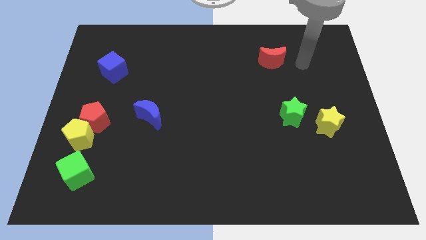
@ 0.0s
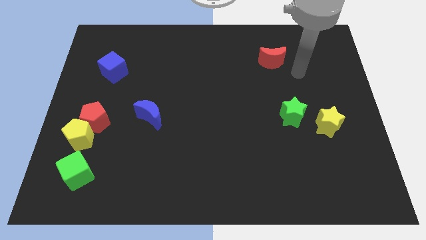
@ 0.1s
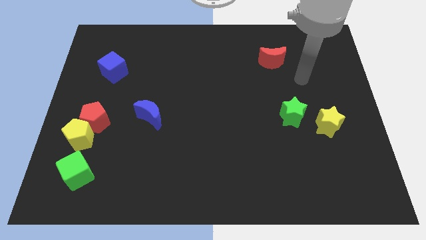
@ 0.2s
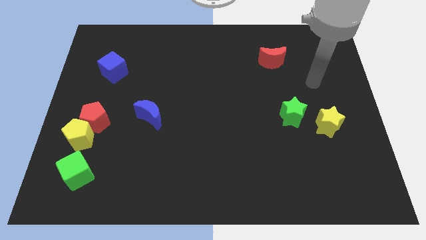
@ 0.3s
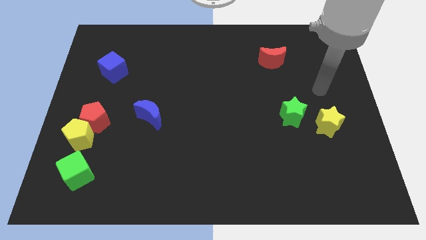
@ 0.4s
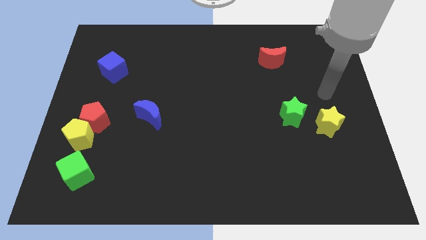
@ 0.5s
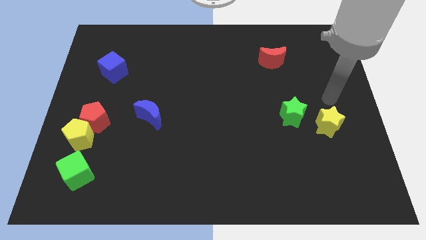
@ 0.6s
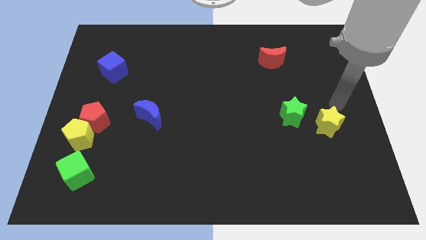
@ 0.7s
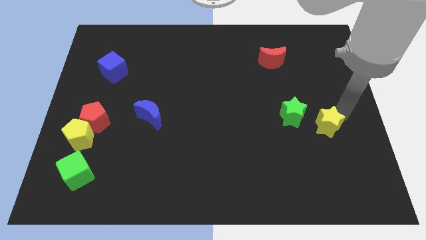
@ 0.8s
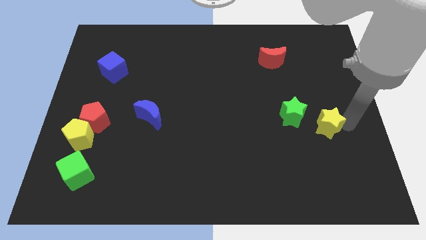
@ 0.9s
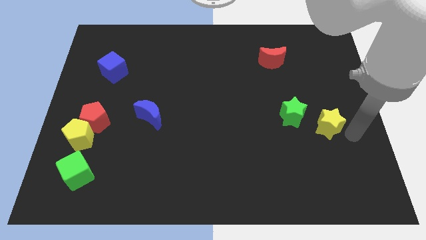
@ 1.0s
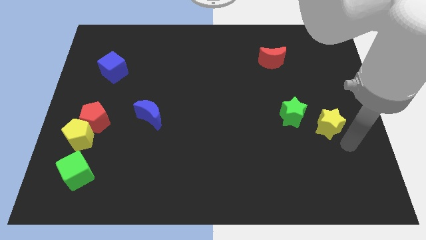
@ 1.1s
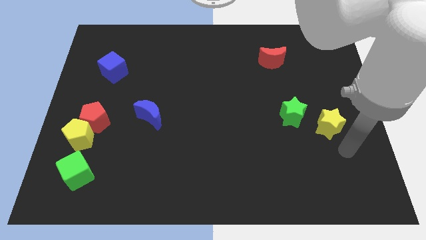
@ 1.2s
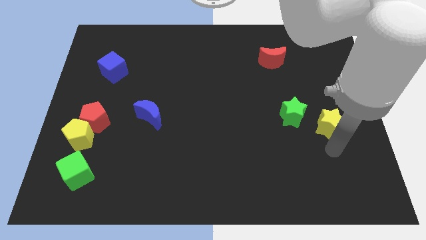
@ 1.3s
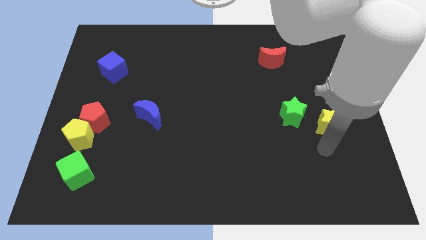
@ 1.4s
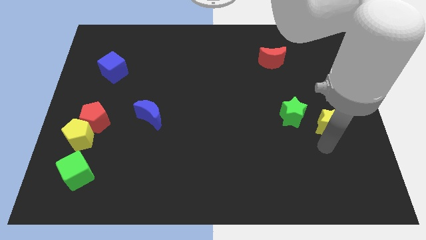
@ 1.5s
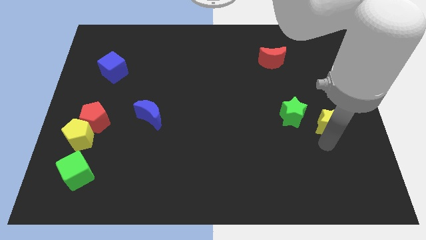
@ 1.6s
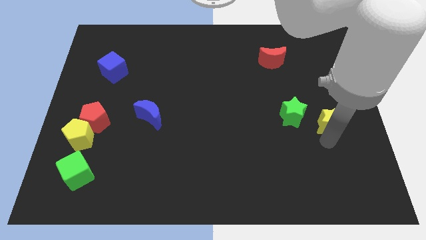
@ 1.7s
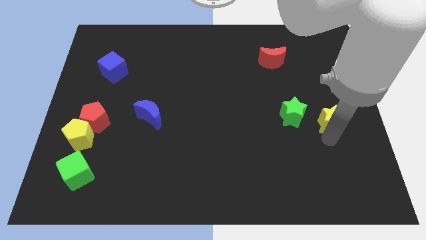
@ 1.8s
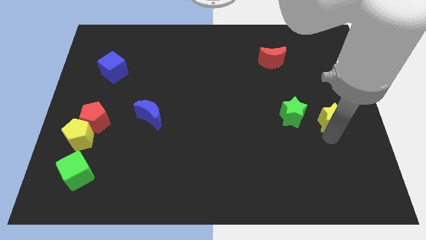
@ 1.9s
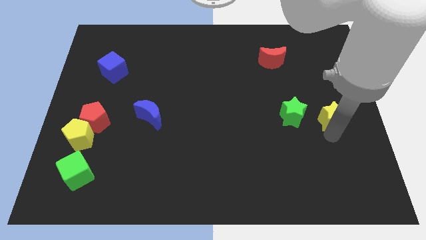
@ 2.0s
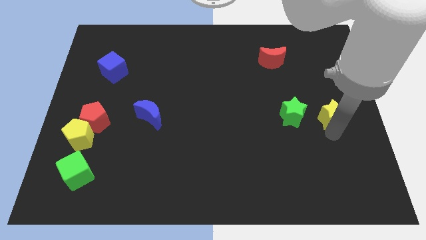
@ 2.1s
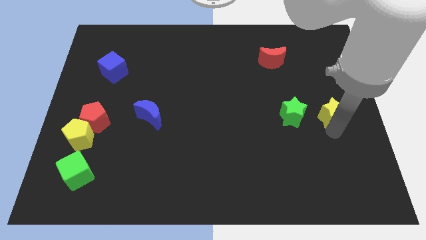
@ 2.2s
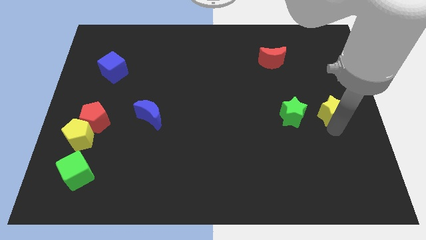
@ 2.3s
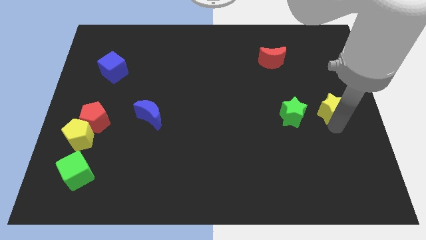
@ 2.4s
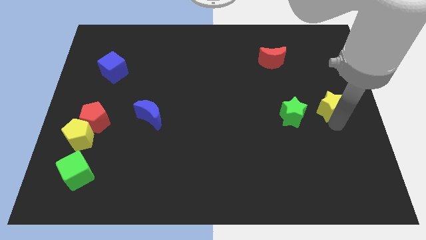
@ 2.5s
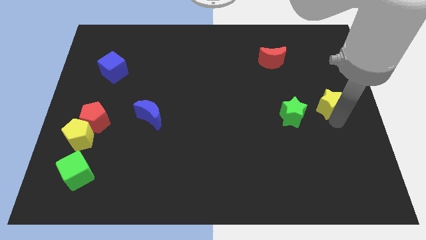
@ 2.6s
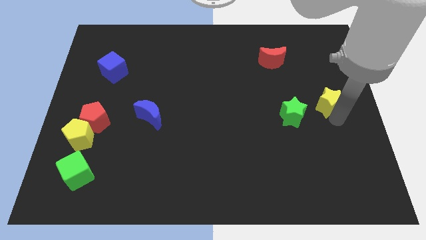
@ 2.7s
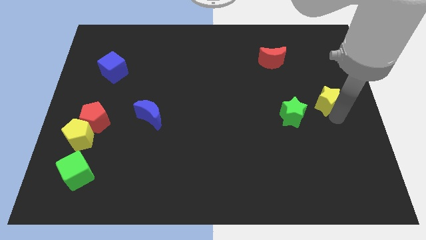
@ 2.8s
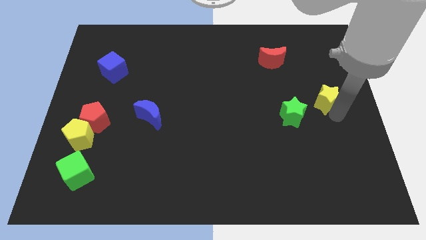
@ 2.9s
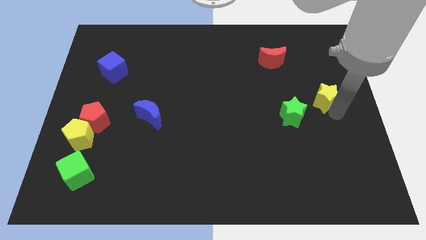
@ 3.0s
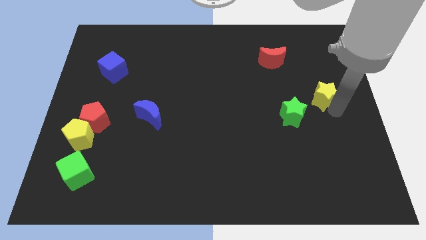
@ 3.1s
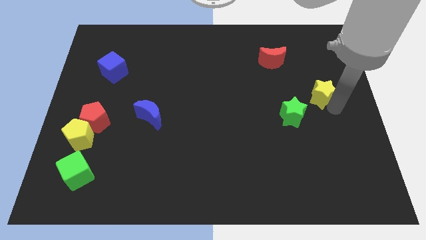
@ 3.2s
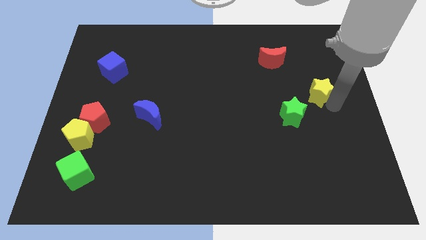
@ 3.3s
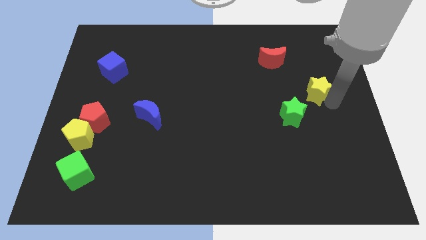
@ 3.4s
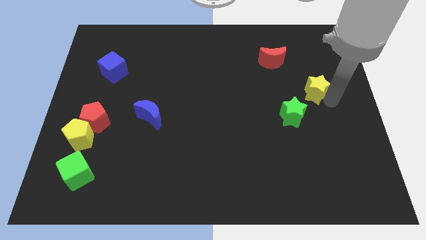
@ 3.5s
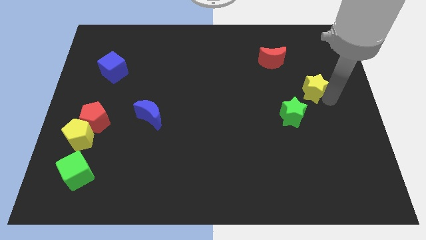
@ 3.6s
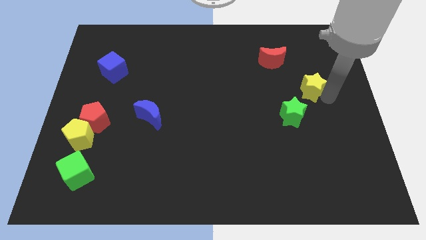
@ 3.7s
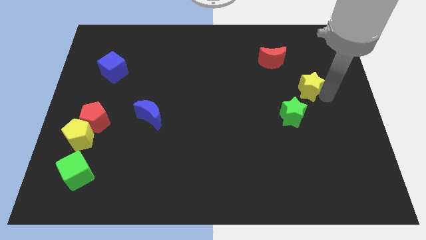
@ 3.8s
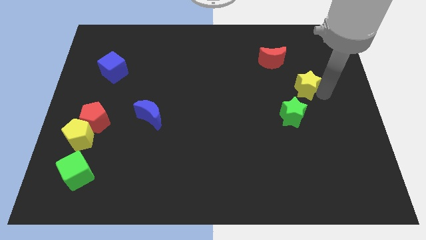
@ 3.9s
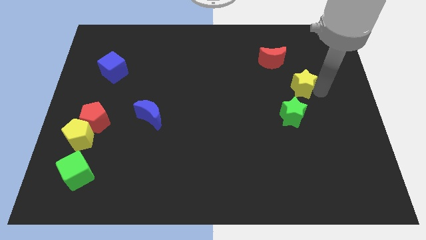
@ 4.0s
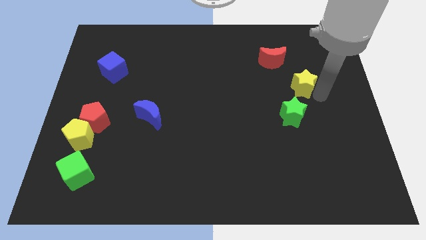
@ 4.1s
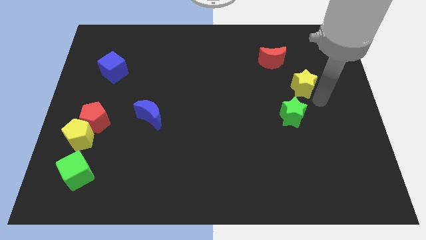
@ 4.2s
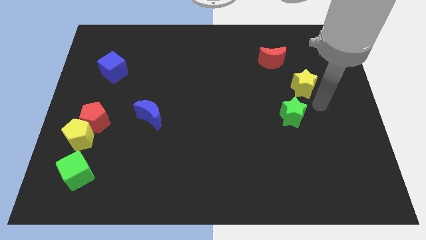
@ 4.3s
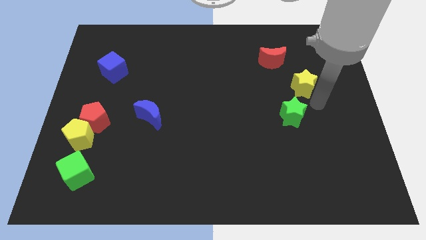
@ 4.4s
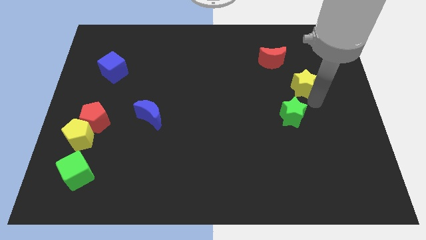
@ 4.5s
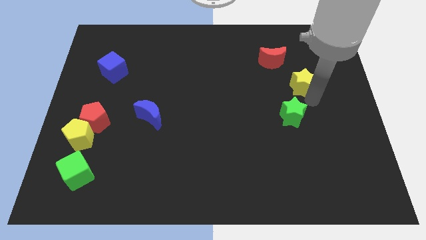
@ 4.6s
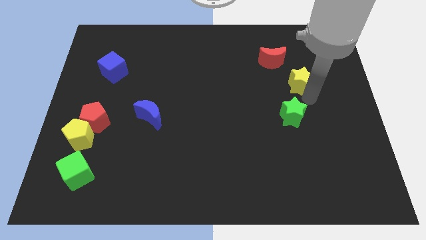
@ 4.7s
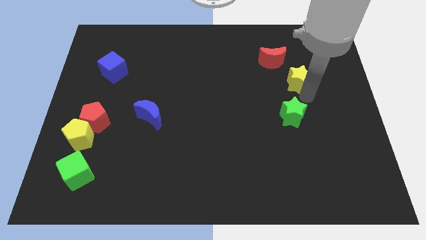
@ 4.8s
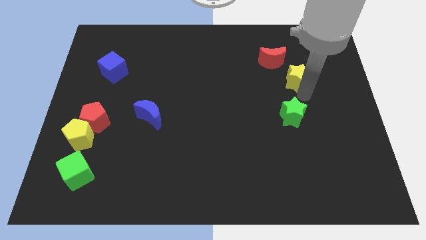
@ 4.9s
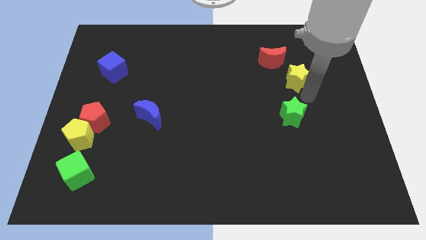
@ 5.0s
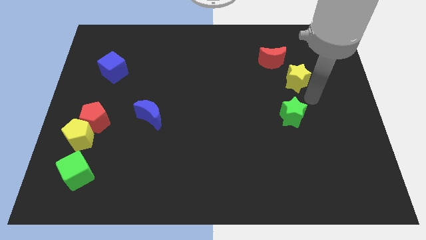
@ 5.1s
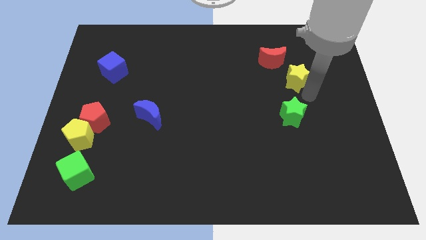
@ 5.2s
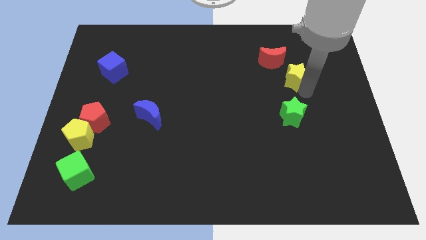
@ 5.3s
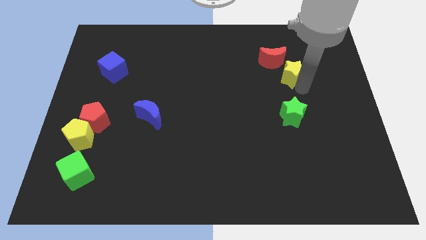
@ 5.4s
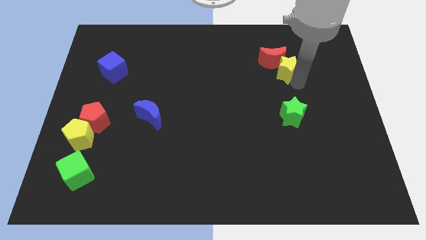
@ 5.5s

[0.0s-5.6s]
move the yellow star to the red moon
